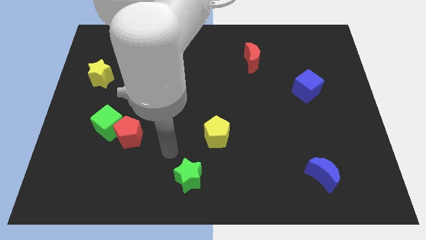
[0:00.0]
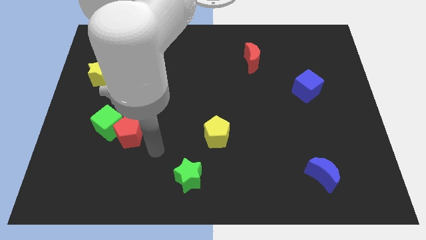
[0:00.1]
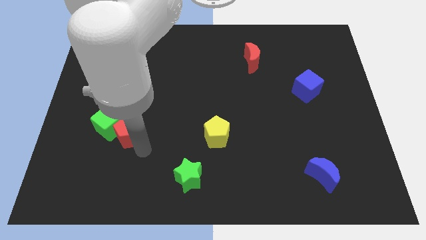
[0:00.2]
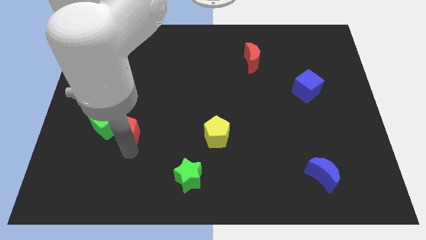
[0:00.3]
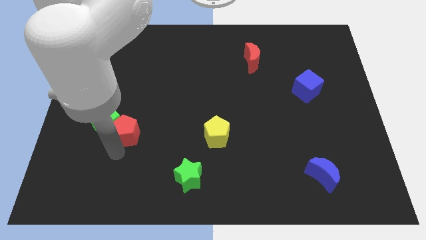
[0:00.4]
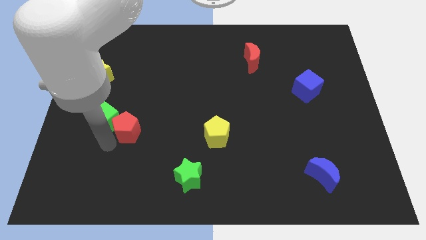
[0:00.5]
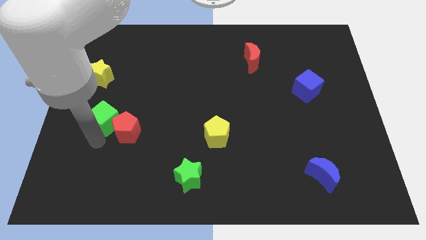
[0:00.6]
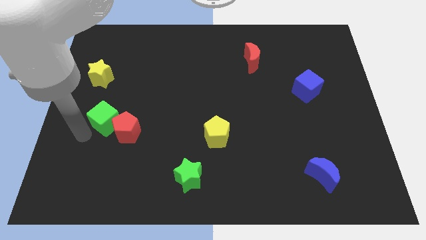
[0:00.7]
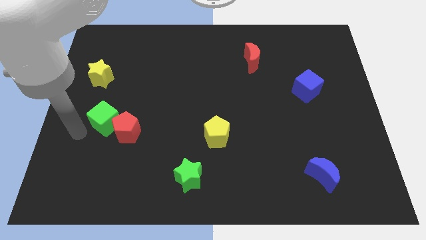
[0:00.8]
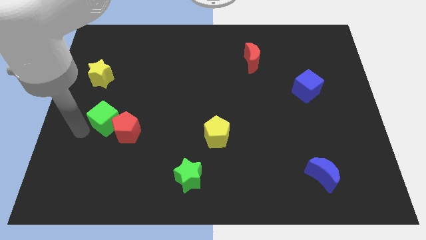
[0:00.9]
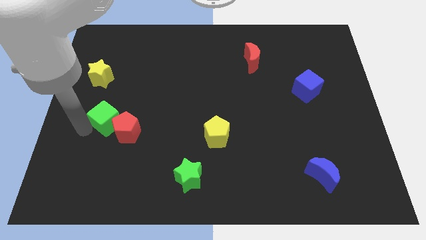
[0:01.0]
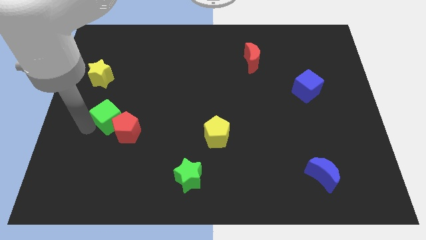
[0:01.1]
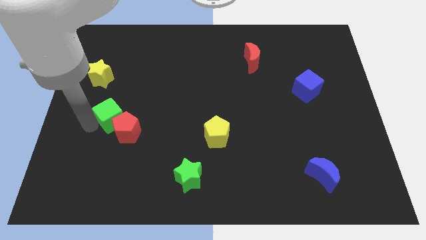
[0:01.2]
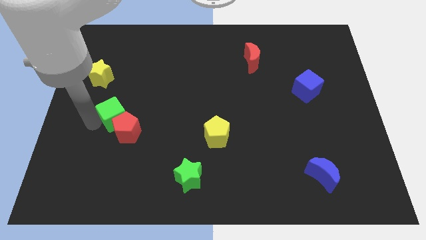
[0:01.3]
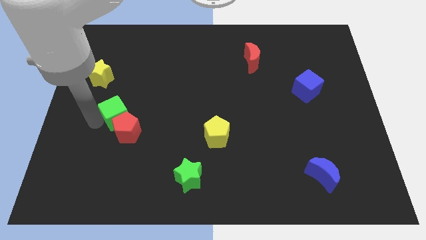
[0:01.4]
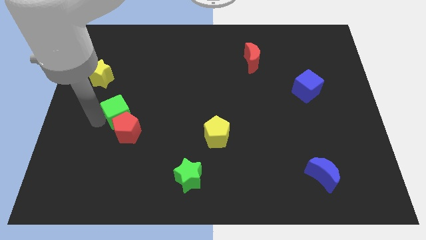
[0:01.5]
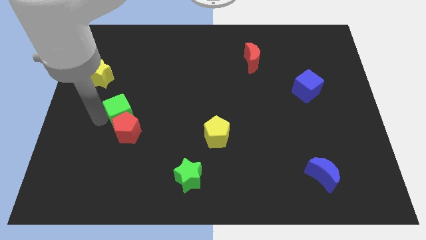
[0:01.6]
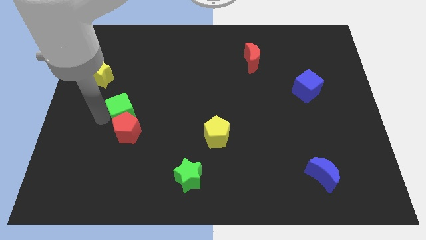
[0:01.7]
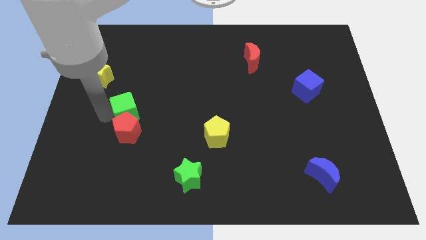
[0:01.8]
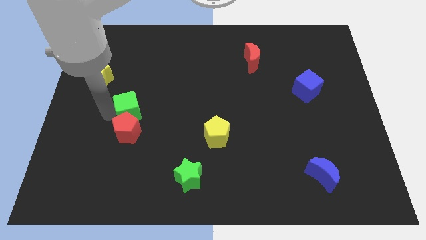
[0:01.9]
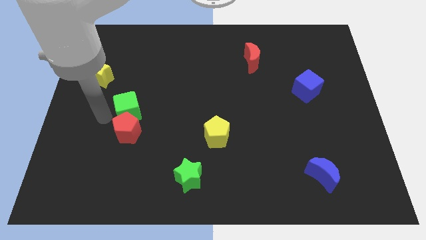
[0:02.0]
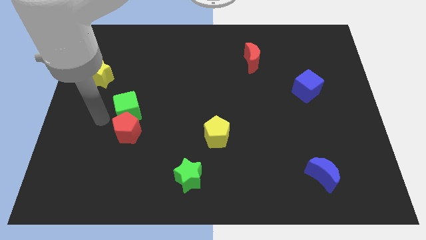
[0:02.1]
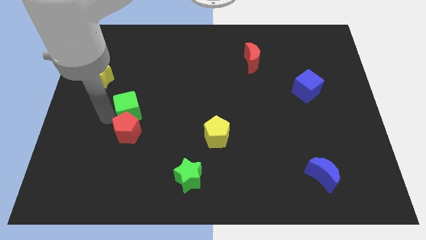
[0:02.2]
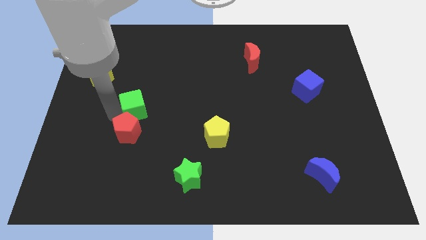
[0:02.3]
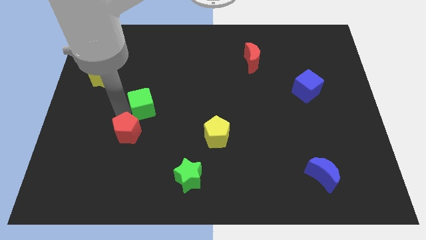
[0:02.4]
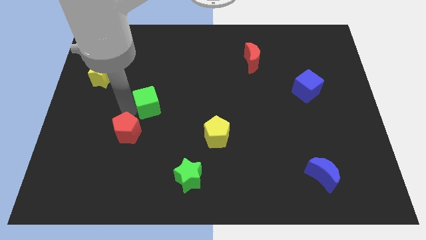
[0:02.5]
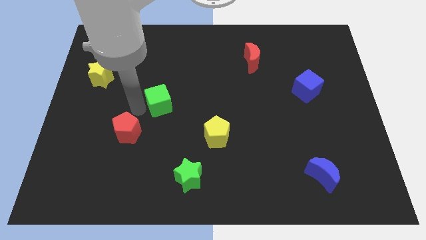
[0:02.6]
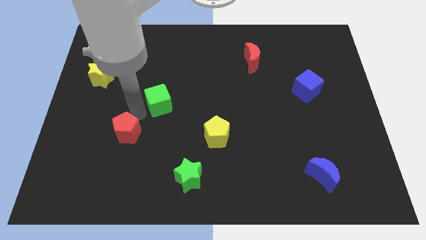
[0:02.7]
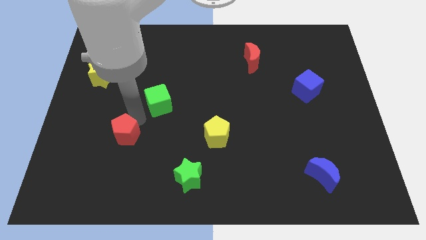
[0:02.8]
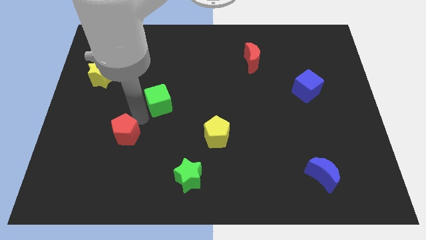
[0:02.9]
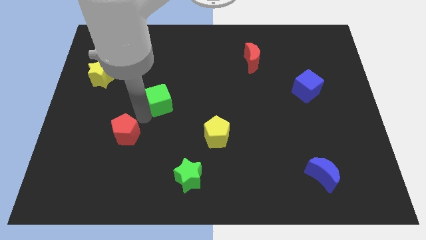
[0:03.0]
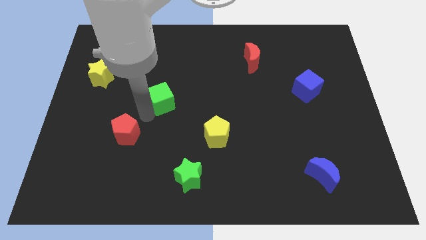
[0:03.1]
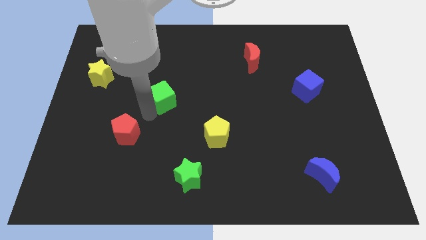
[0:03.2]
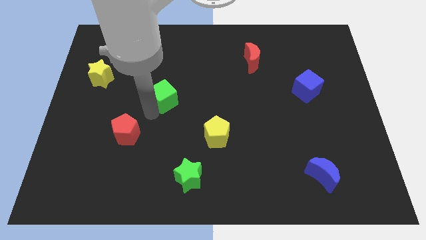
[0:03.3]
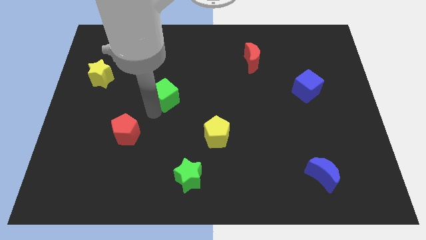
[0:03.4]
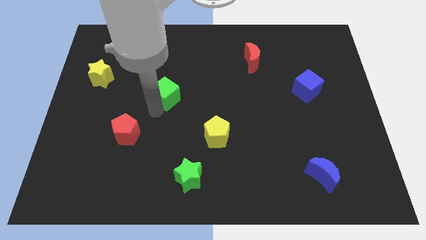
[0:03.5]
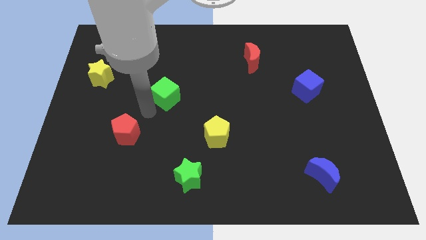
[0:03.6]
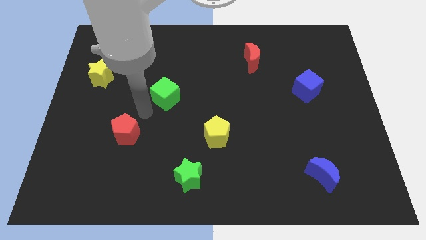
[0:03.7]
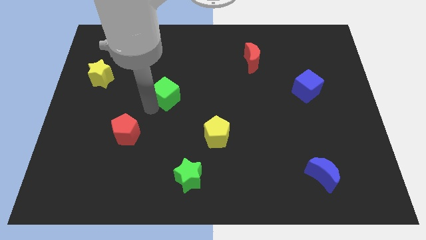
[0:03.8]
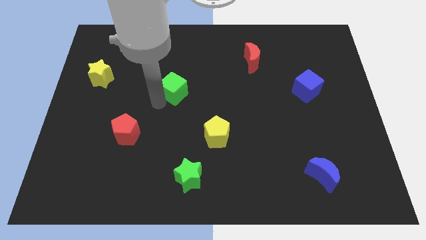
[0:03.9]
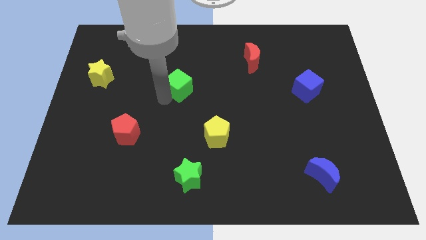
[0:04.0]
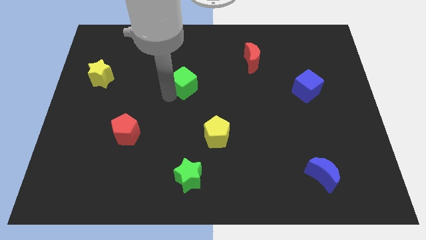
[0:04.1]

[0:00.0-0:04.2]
push the green cube upwards and then right

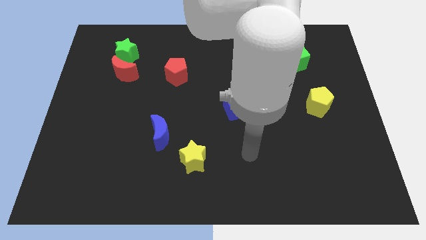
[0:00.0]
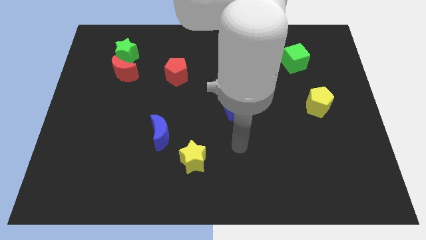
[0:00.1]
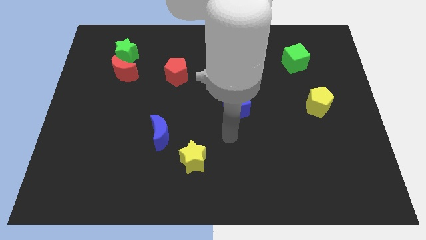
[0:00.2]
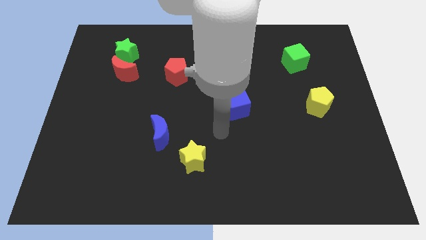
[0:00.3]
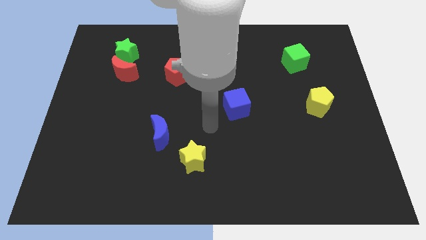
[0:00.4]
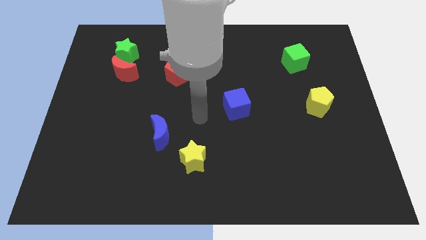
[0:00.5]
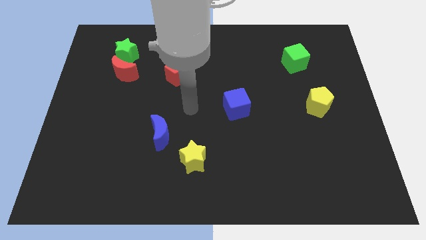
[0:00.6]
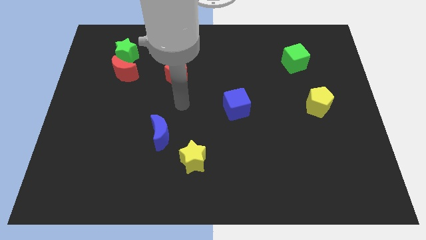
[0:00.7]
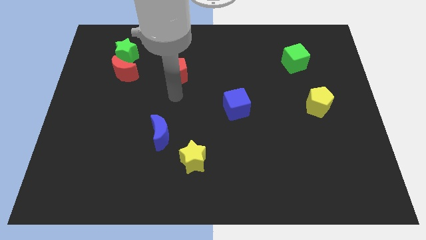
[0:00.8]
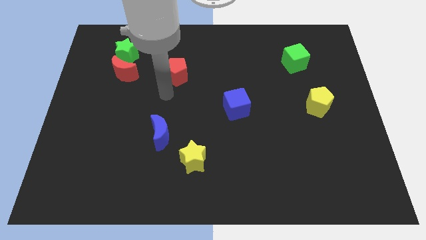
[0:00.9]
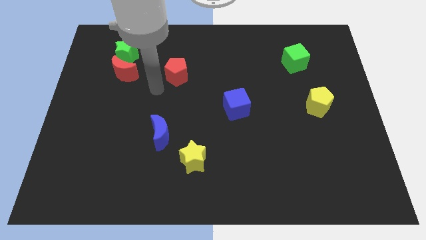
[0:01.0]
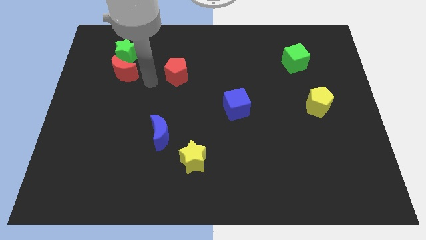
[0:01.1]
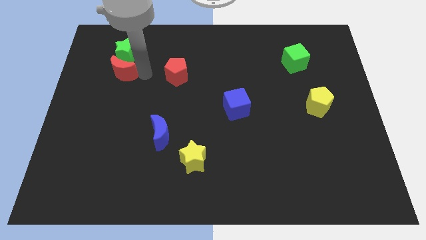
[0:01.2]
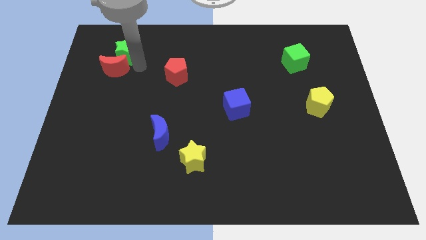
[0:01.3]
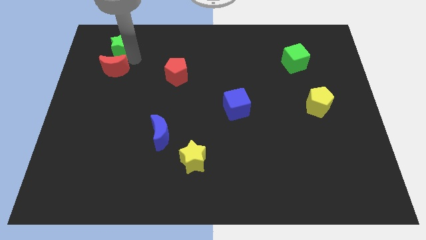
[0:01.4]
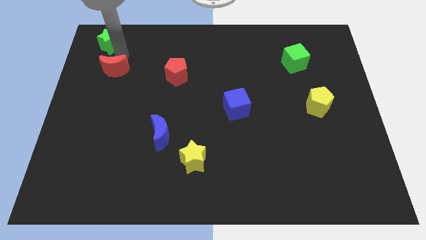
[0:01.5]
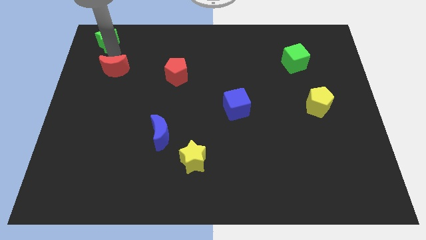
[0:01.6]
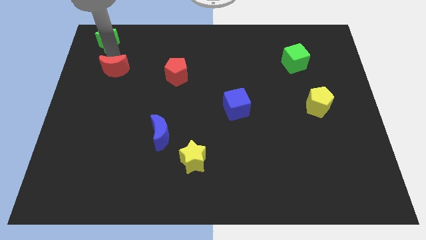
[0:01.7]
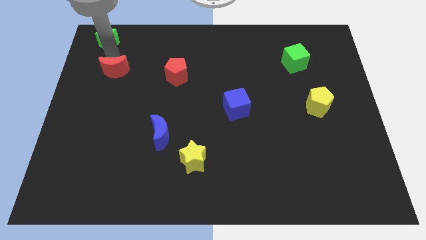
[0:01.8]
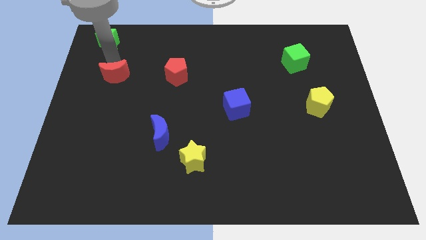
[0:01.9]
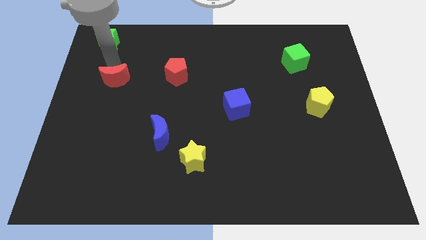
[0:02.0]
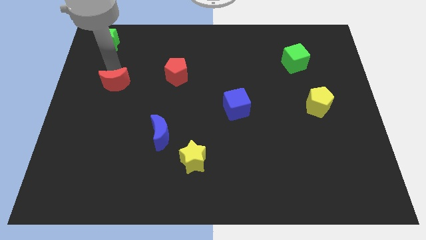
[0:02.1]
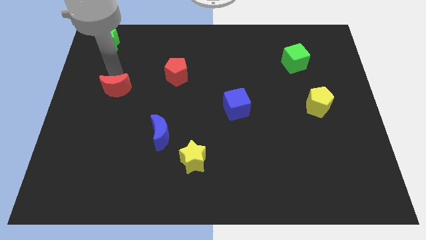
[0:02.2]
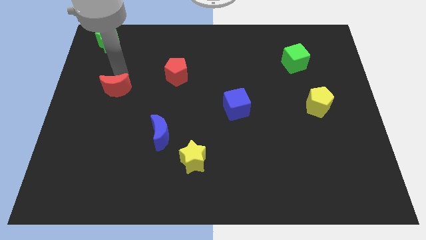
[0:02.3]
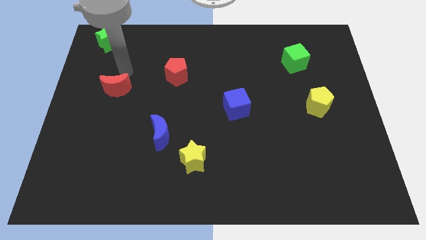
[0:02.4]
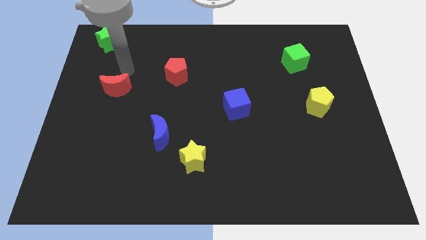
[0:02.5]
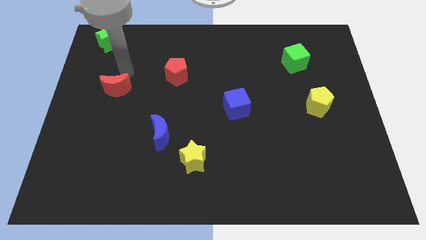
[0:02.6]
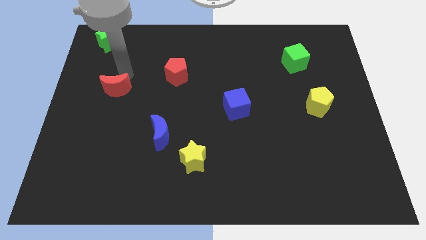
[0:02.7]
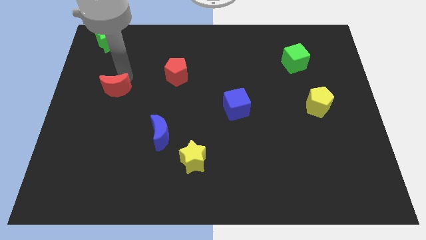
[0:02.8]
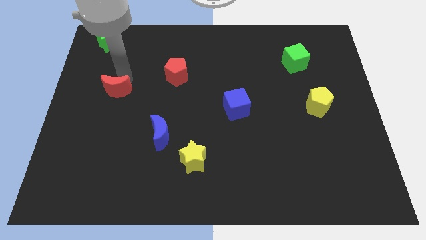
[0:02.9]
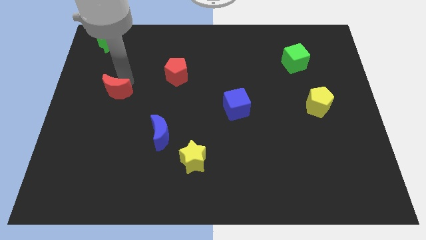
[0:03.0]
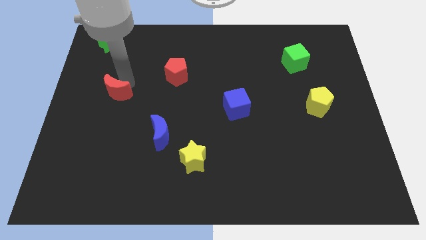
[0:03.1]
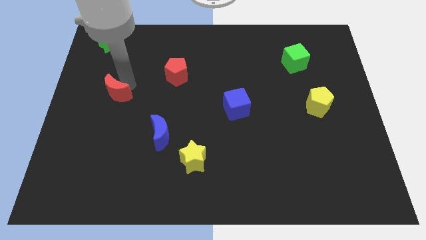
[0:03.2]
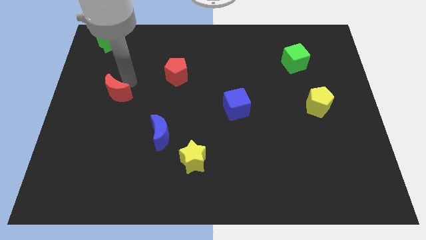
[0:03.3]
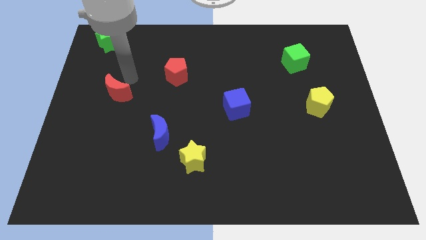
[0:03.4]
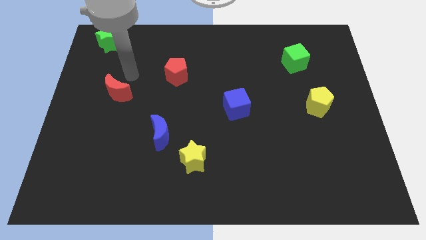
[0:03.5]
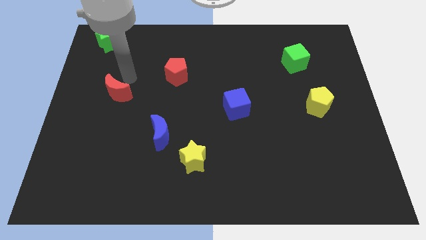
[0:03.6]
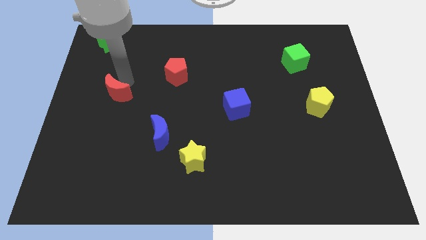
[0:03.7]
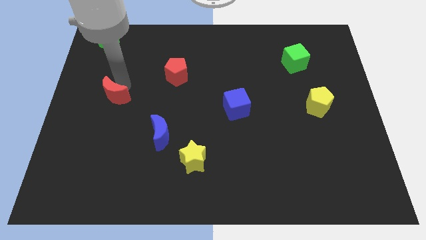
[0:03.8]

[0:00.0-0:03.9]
push the red moon slightly down
